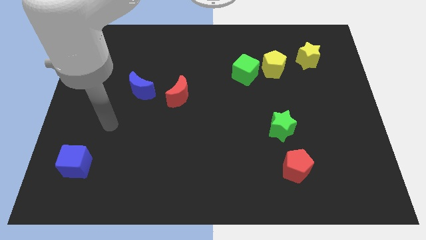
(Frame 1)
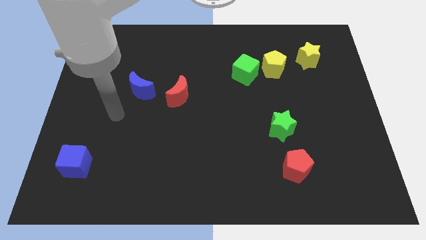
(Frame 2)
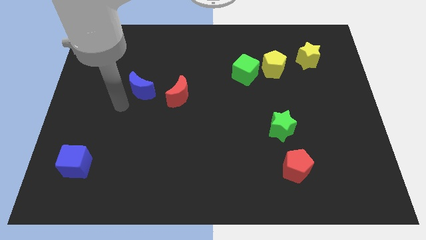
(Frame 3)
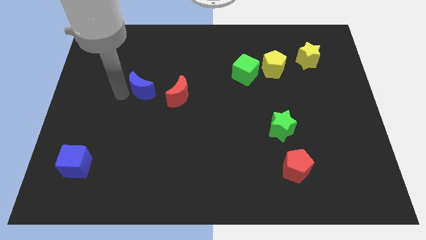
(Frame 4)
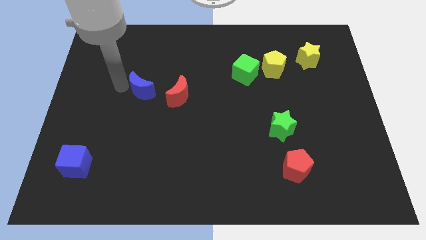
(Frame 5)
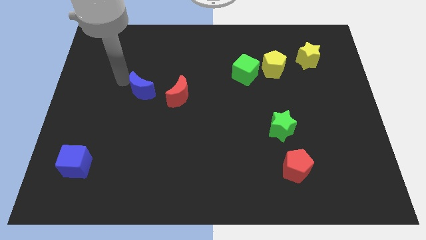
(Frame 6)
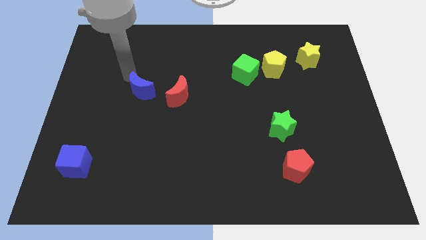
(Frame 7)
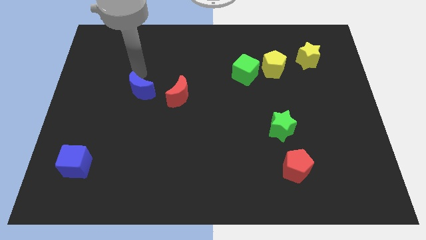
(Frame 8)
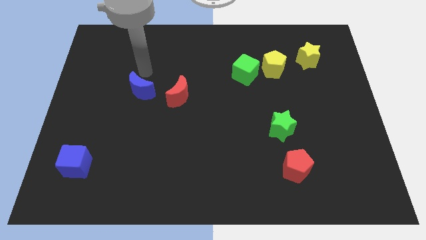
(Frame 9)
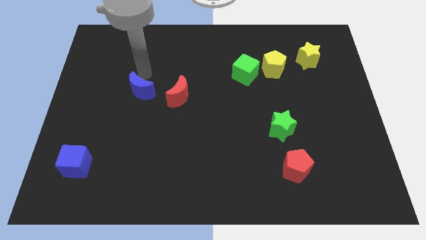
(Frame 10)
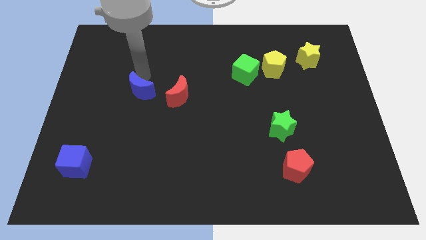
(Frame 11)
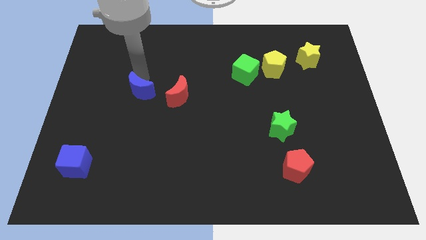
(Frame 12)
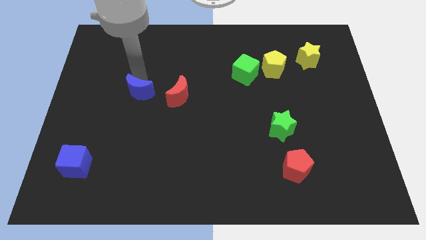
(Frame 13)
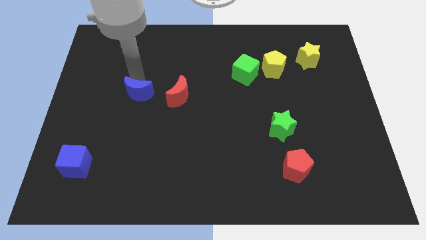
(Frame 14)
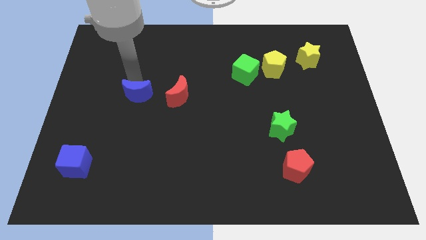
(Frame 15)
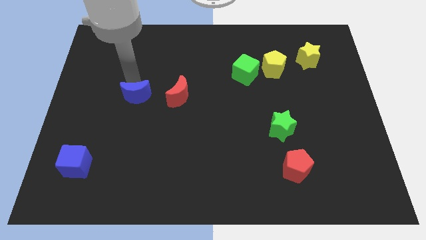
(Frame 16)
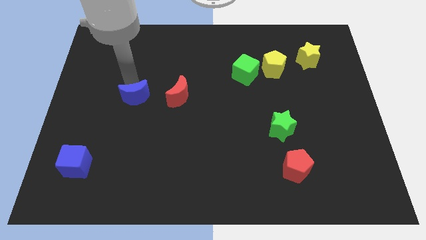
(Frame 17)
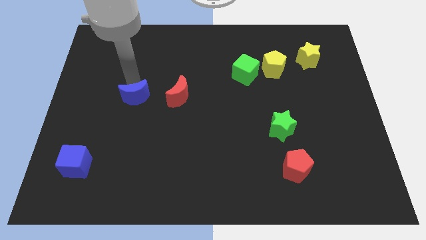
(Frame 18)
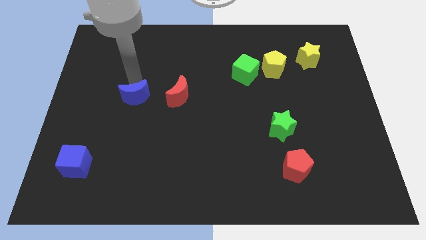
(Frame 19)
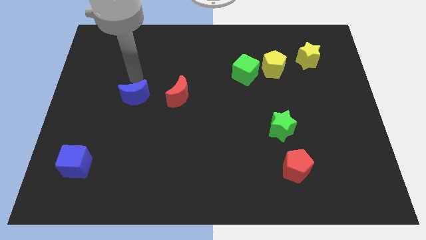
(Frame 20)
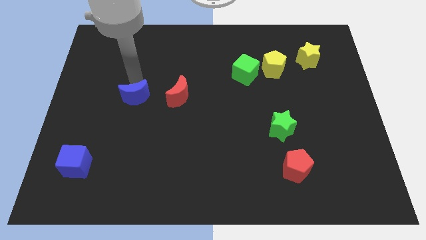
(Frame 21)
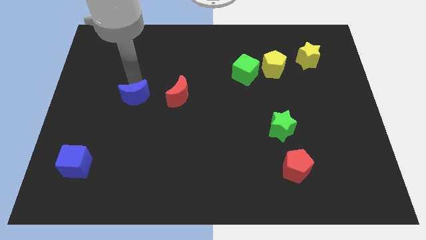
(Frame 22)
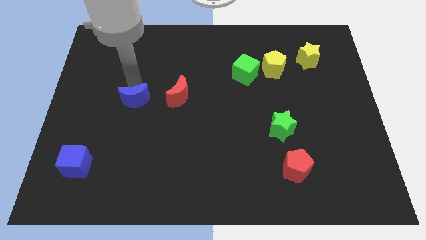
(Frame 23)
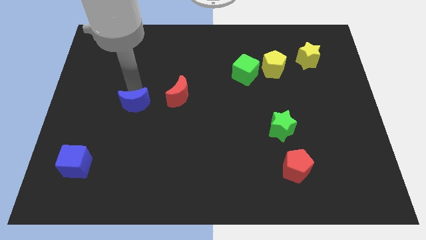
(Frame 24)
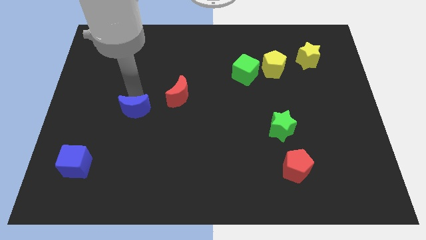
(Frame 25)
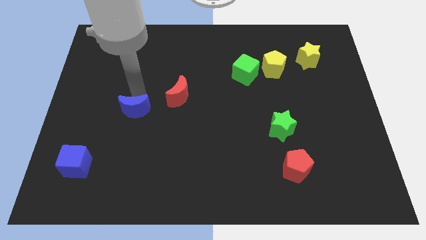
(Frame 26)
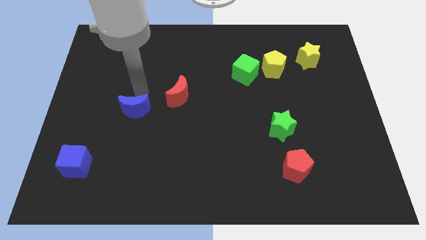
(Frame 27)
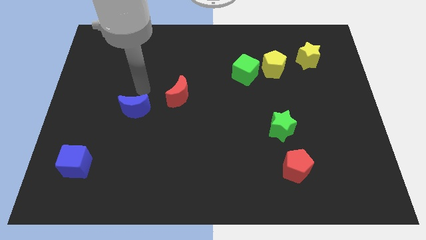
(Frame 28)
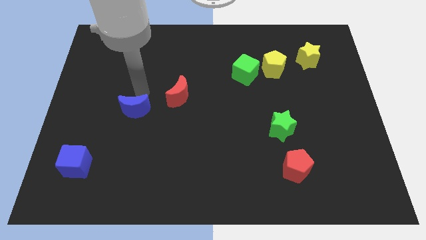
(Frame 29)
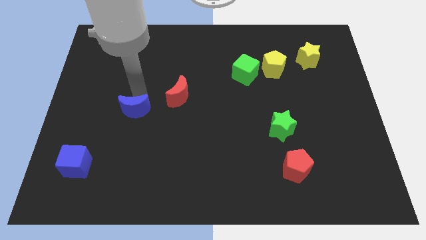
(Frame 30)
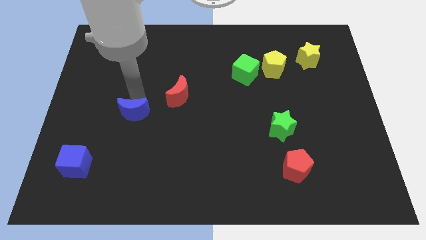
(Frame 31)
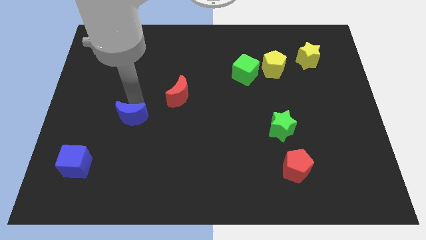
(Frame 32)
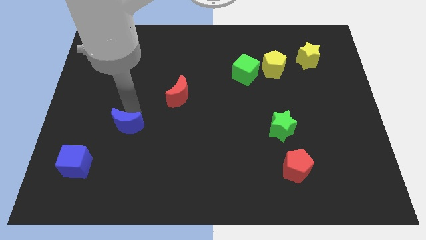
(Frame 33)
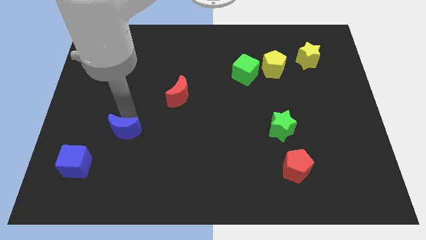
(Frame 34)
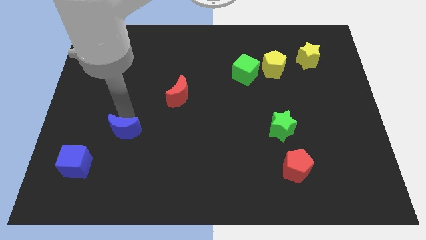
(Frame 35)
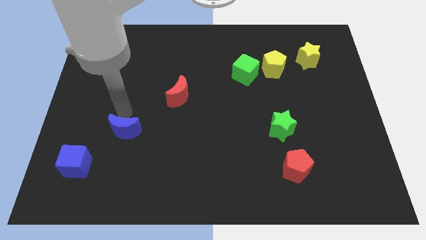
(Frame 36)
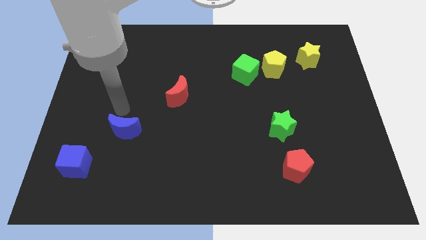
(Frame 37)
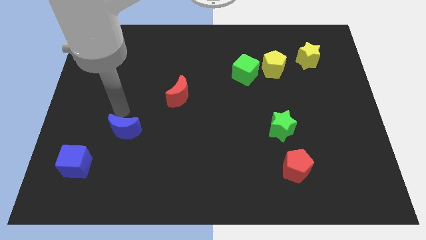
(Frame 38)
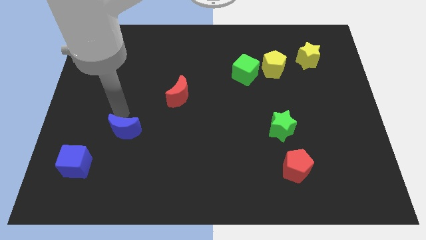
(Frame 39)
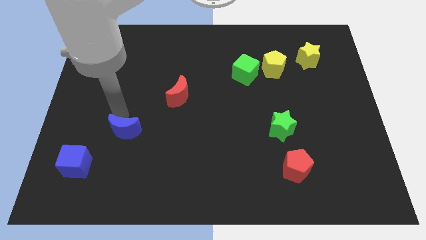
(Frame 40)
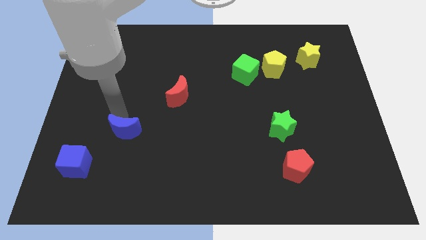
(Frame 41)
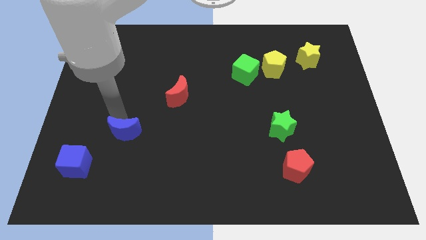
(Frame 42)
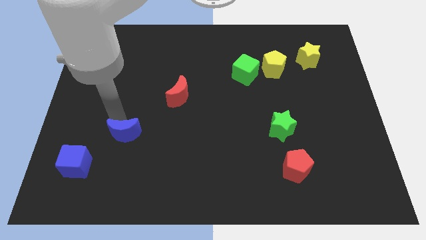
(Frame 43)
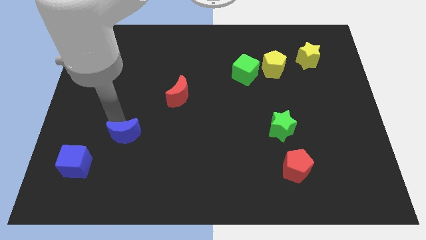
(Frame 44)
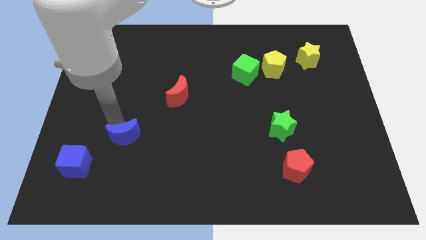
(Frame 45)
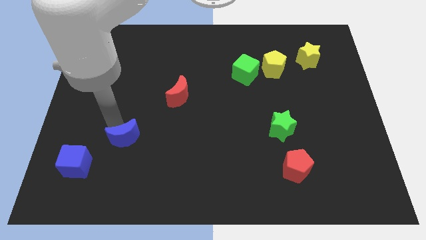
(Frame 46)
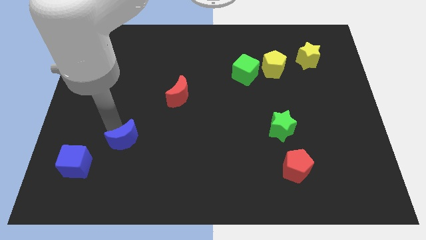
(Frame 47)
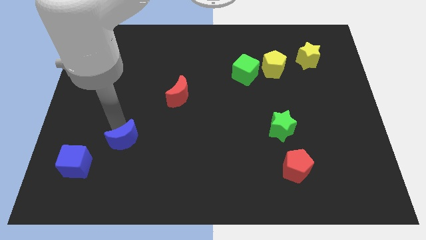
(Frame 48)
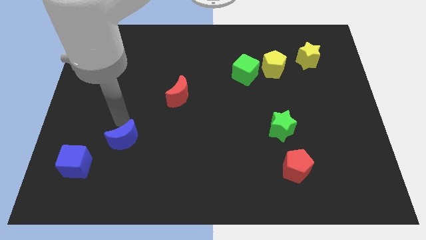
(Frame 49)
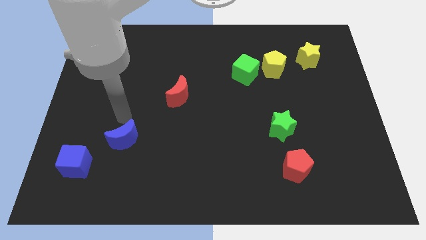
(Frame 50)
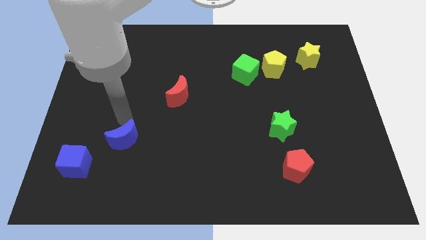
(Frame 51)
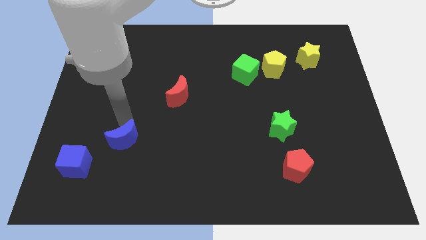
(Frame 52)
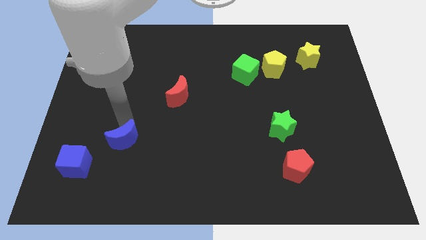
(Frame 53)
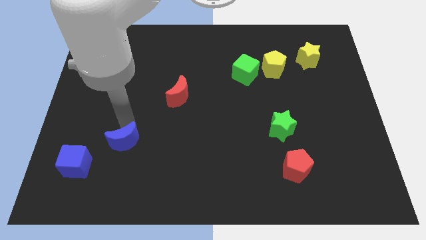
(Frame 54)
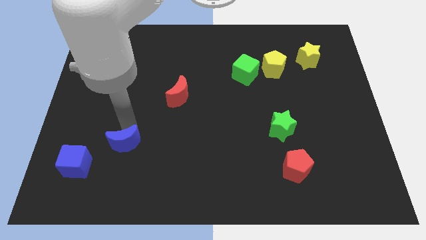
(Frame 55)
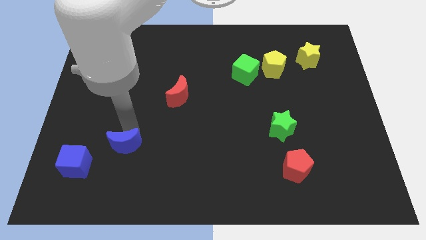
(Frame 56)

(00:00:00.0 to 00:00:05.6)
push the blue moon right of the blue cube

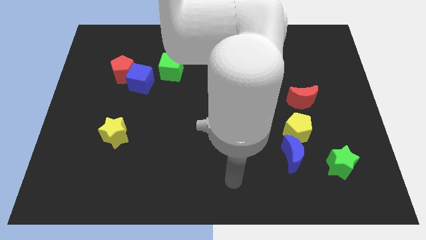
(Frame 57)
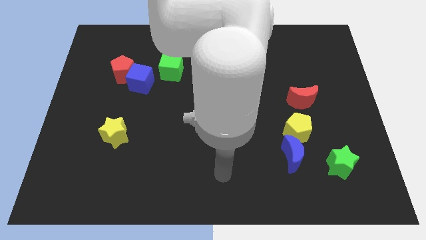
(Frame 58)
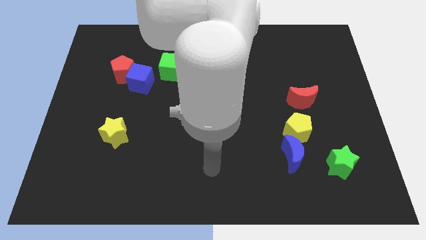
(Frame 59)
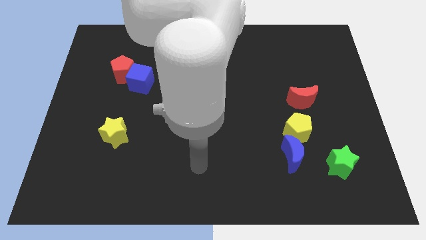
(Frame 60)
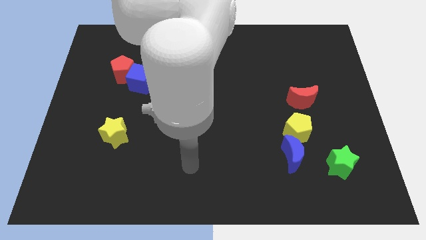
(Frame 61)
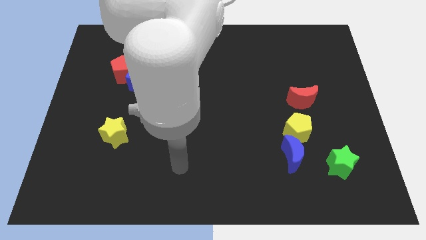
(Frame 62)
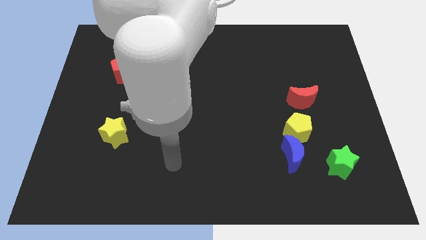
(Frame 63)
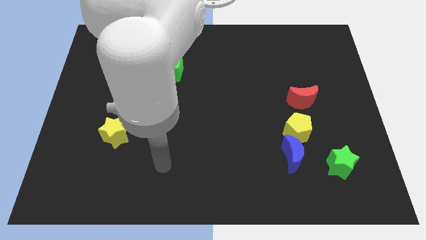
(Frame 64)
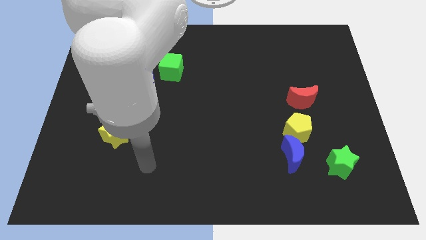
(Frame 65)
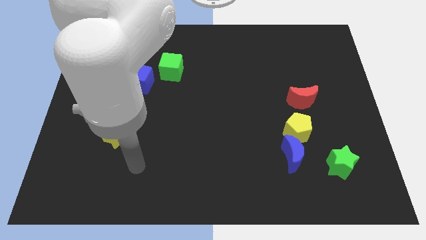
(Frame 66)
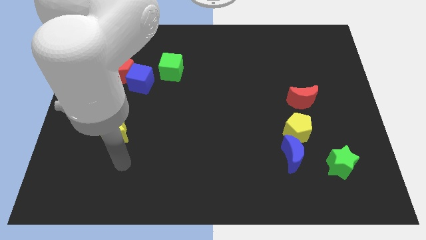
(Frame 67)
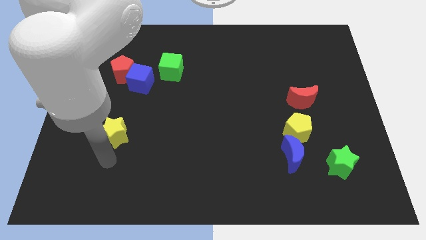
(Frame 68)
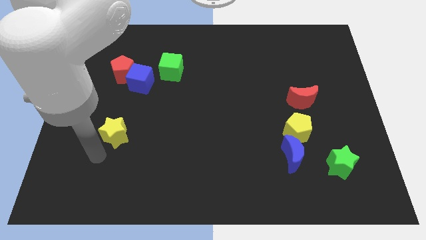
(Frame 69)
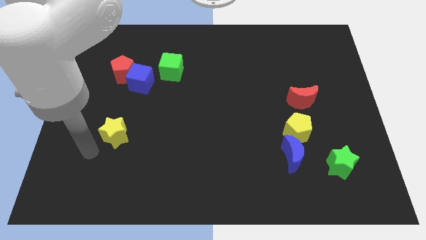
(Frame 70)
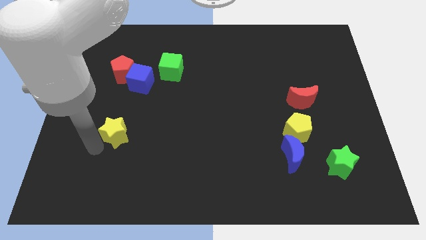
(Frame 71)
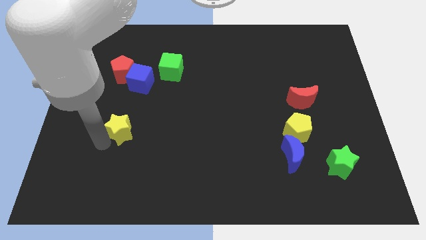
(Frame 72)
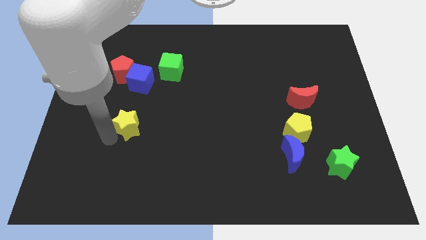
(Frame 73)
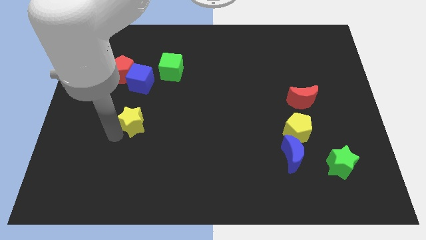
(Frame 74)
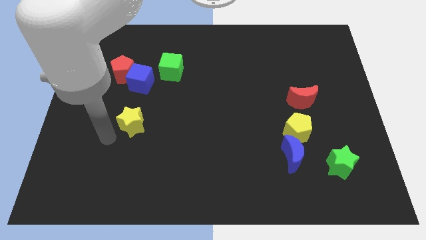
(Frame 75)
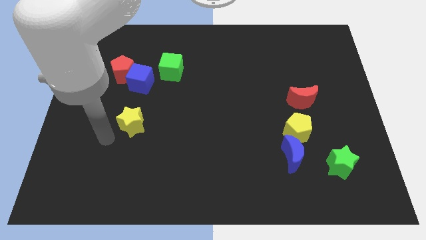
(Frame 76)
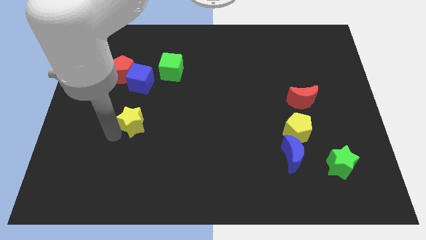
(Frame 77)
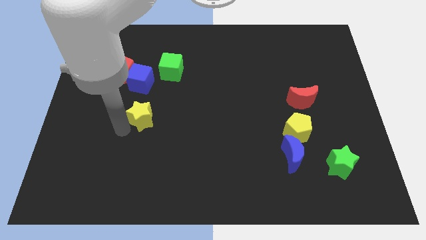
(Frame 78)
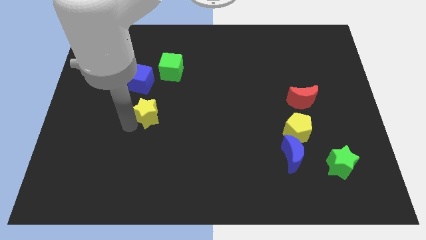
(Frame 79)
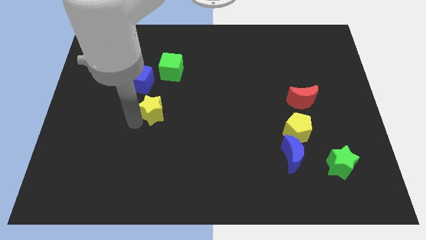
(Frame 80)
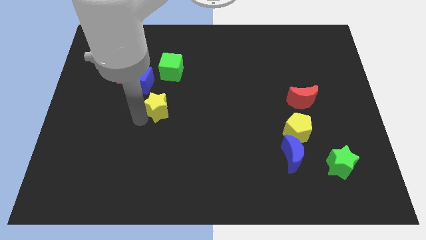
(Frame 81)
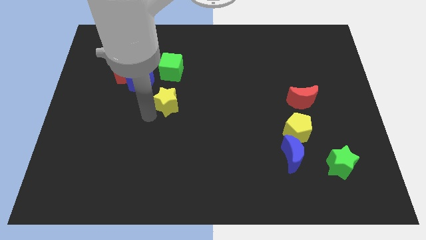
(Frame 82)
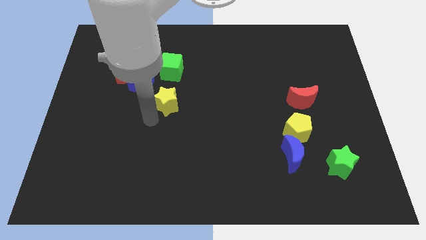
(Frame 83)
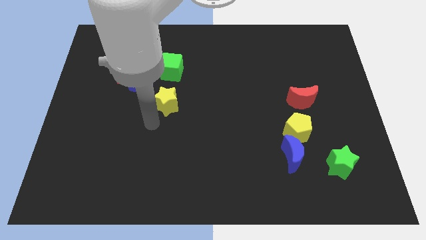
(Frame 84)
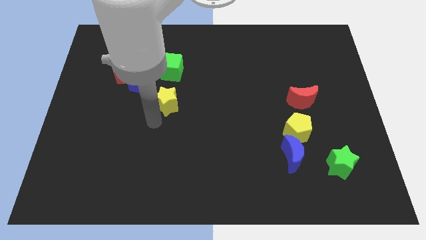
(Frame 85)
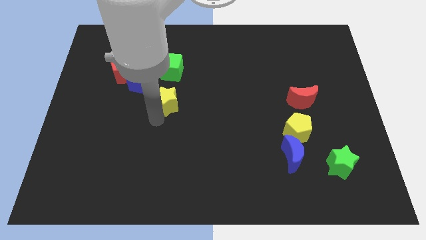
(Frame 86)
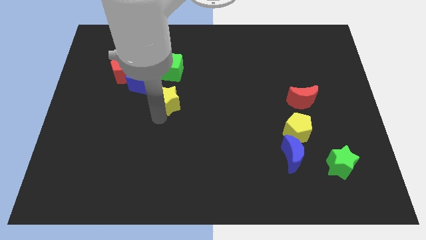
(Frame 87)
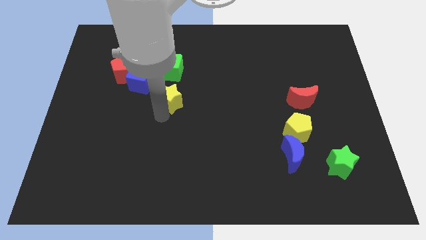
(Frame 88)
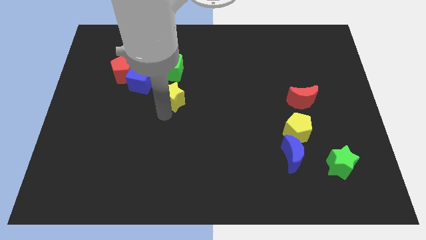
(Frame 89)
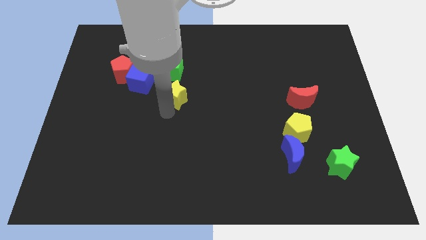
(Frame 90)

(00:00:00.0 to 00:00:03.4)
push the yellow star to the right of the blue cube
